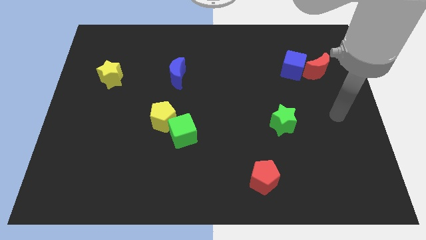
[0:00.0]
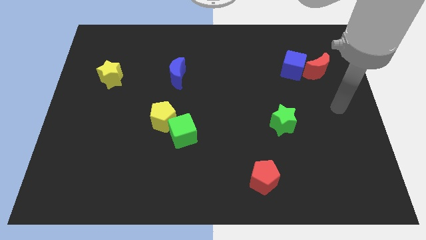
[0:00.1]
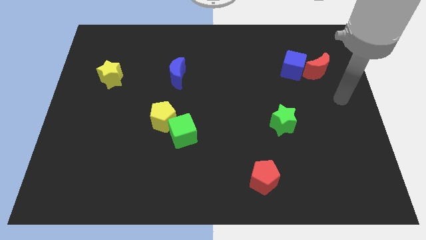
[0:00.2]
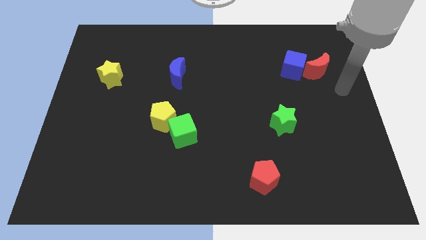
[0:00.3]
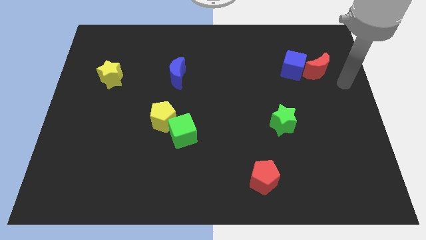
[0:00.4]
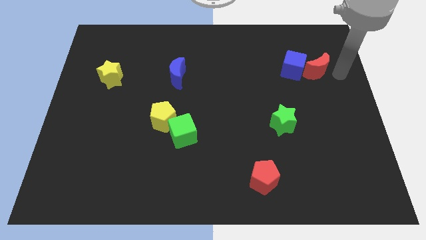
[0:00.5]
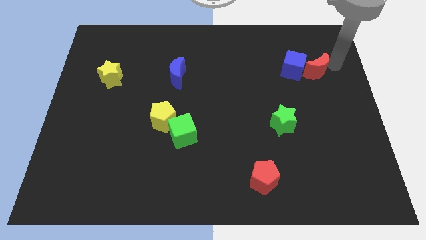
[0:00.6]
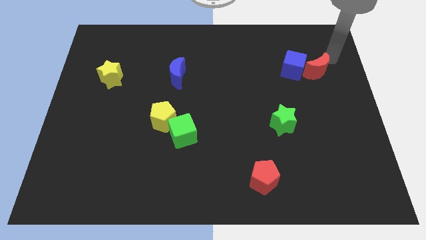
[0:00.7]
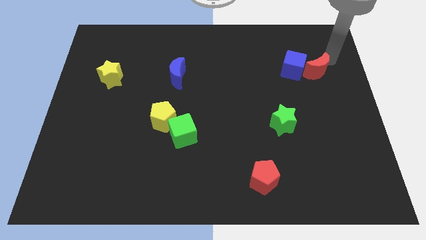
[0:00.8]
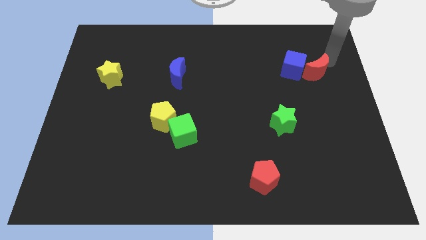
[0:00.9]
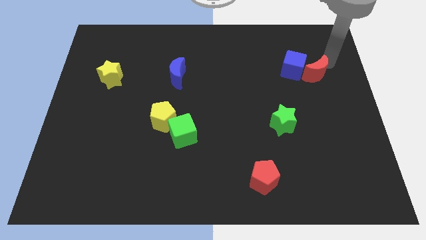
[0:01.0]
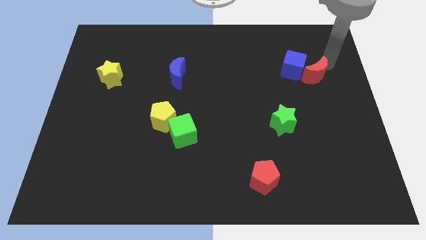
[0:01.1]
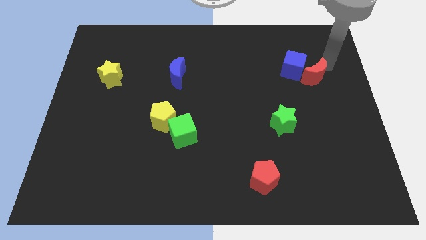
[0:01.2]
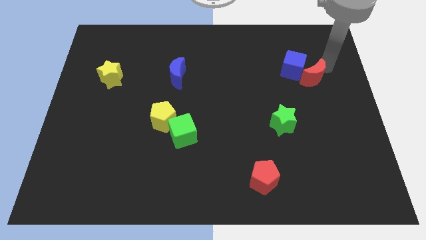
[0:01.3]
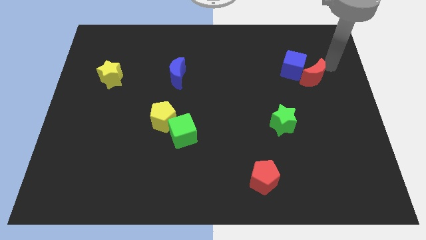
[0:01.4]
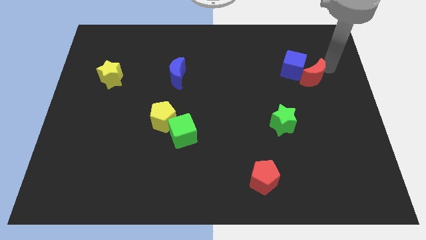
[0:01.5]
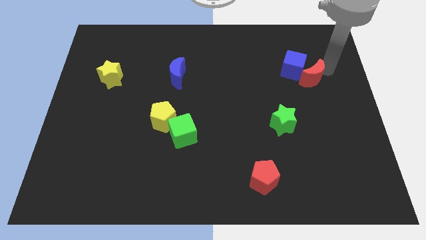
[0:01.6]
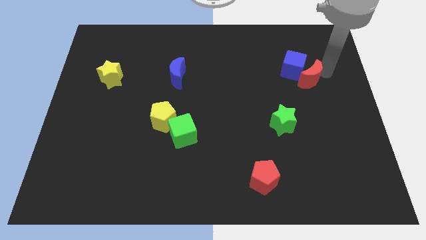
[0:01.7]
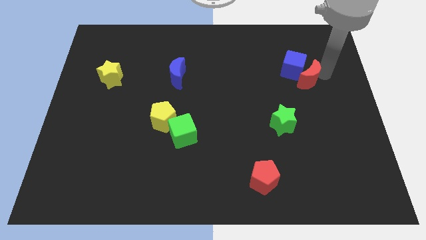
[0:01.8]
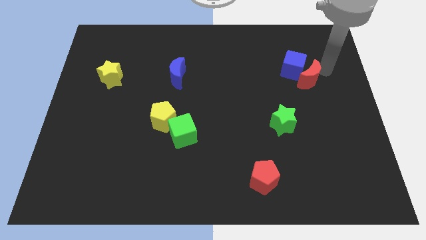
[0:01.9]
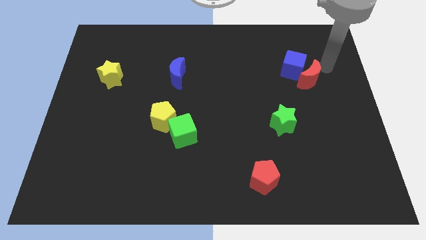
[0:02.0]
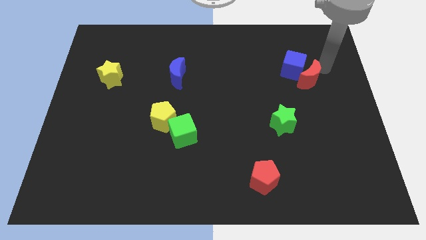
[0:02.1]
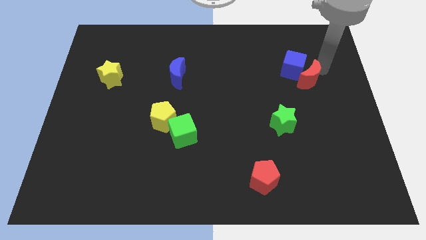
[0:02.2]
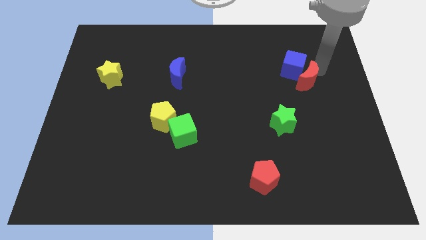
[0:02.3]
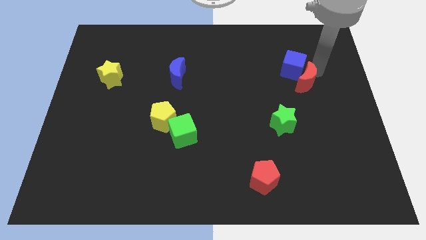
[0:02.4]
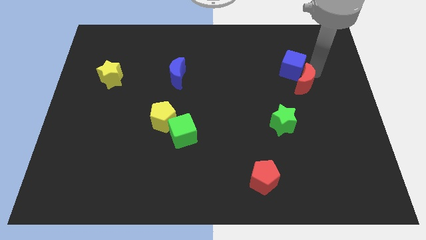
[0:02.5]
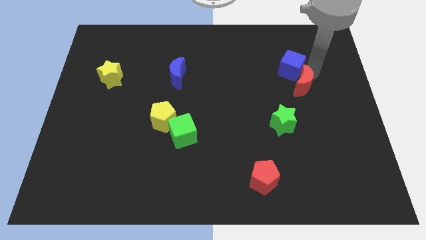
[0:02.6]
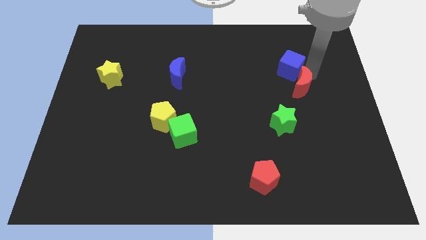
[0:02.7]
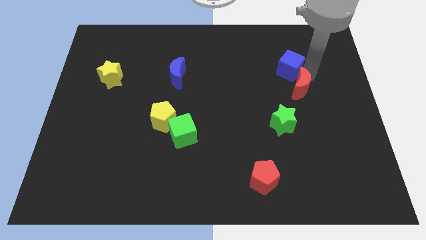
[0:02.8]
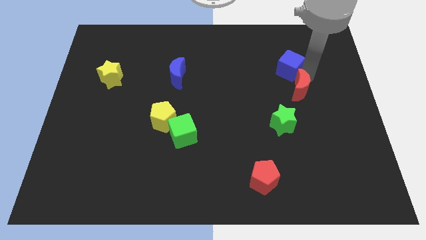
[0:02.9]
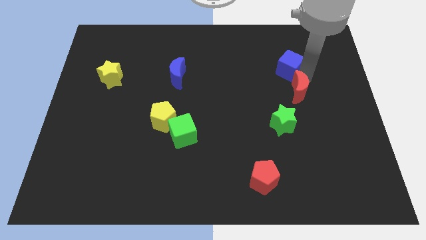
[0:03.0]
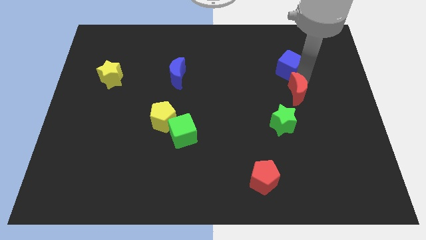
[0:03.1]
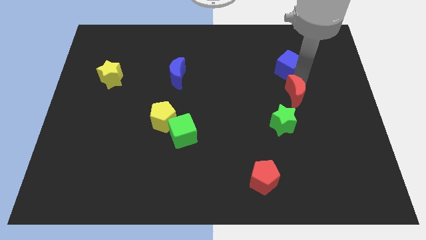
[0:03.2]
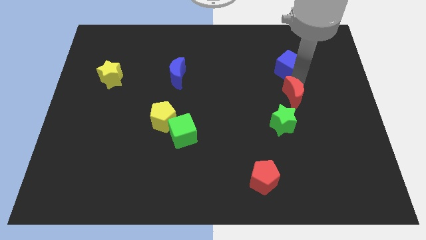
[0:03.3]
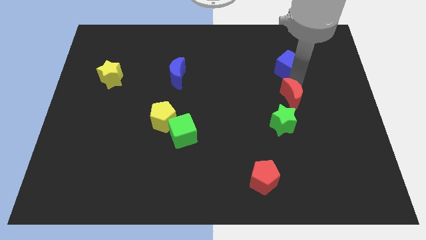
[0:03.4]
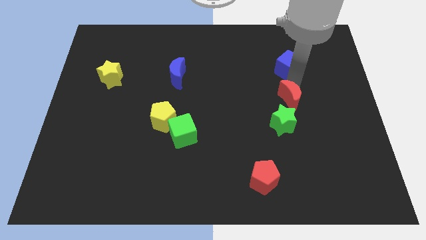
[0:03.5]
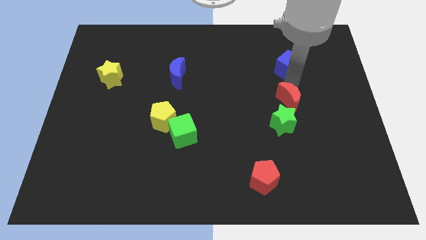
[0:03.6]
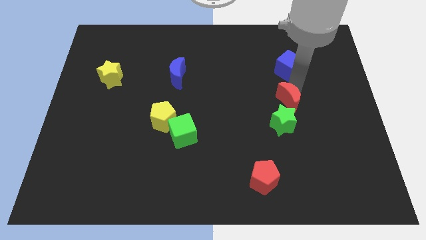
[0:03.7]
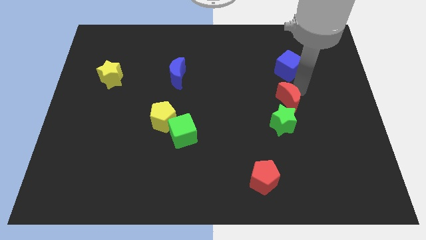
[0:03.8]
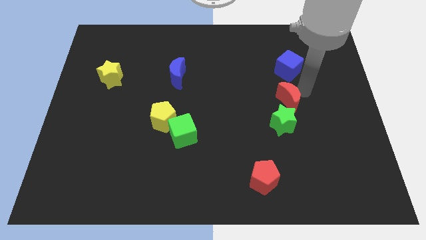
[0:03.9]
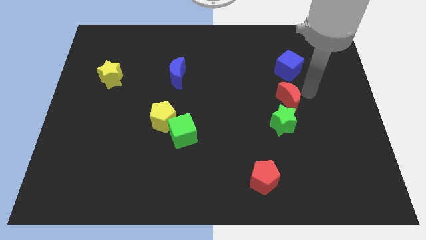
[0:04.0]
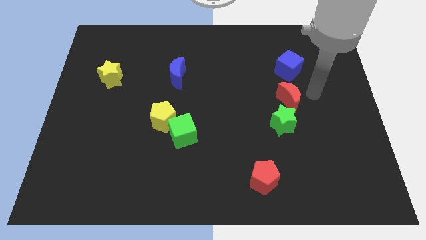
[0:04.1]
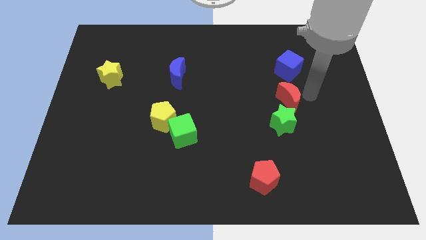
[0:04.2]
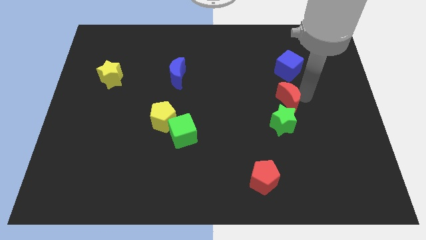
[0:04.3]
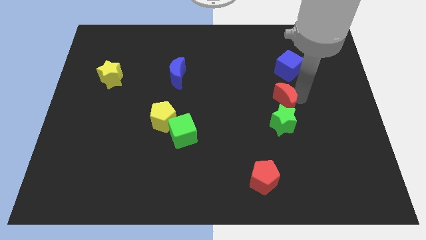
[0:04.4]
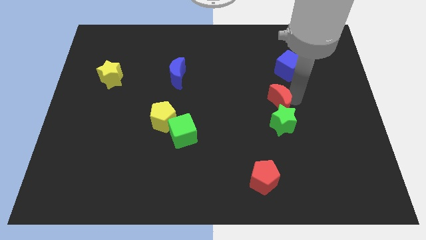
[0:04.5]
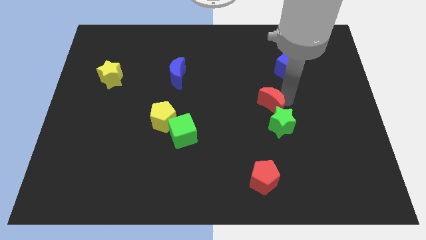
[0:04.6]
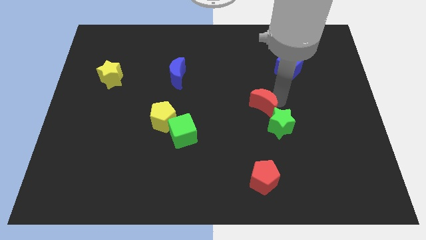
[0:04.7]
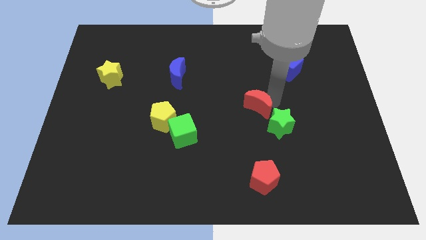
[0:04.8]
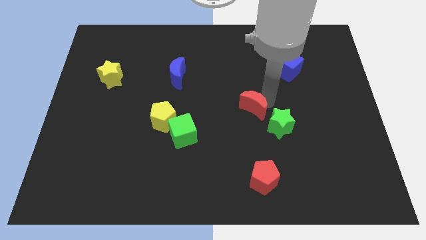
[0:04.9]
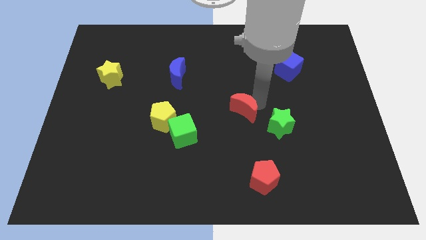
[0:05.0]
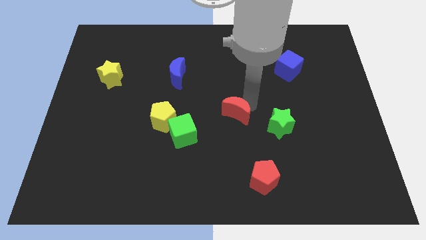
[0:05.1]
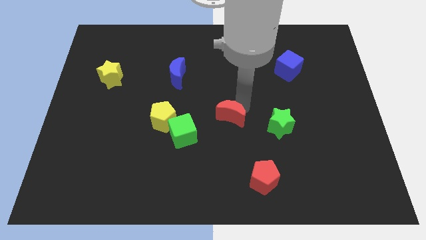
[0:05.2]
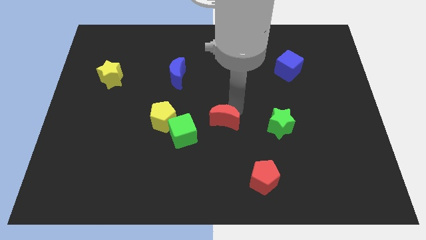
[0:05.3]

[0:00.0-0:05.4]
slide the red moon just right of the green cube

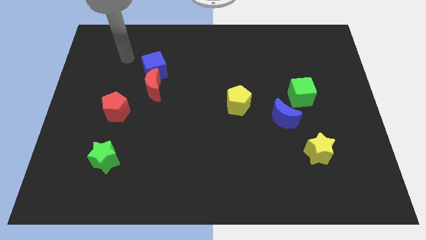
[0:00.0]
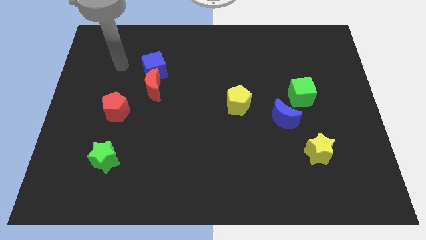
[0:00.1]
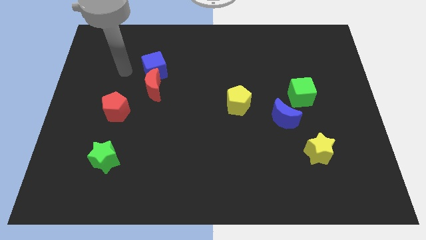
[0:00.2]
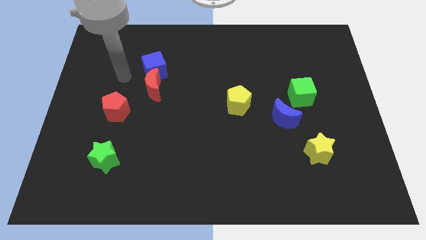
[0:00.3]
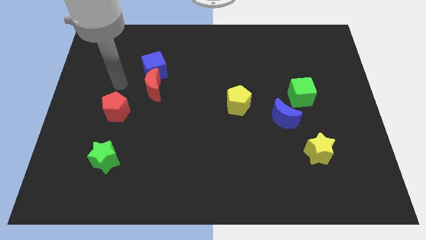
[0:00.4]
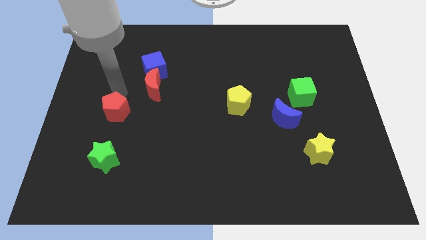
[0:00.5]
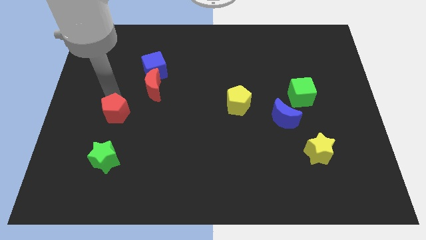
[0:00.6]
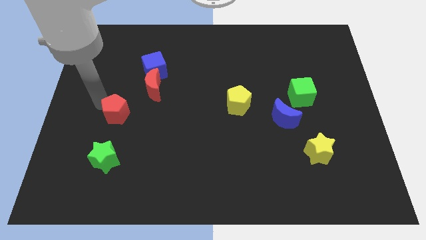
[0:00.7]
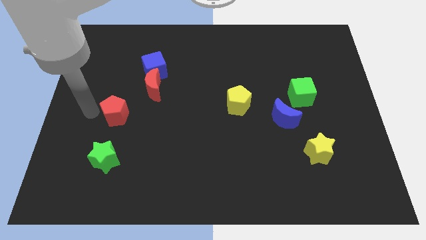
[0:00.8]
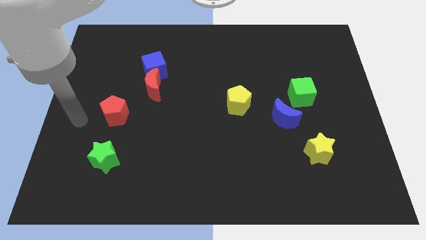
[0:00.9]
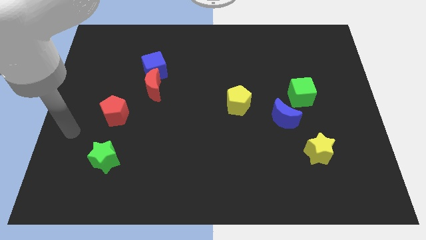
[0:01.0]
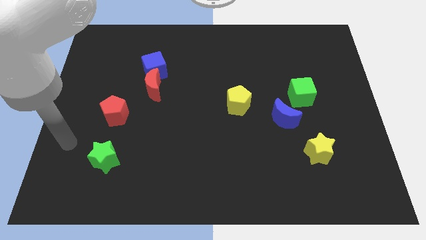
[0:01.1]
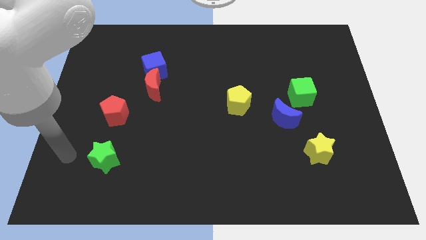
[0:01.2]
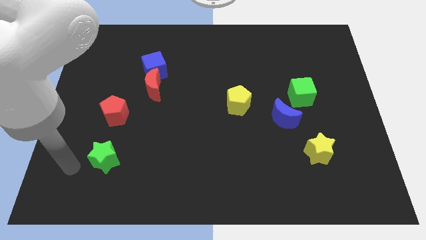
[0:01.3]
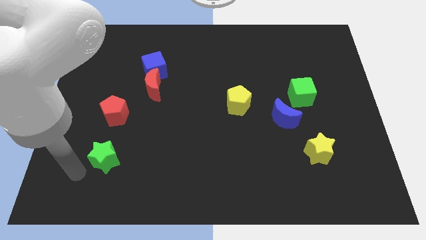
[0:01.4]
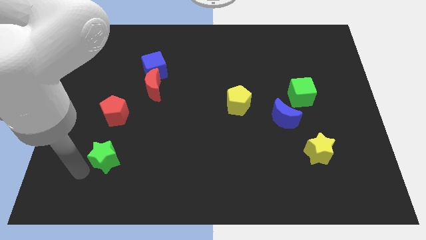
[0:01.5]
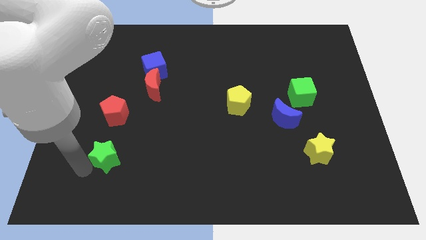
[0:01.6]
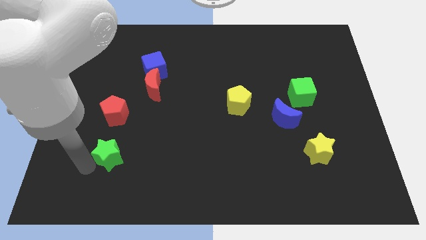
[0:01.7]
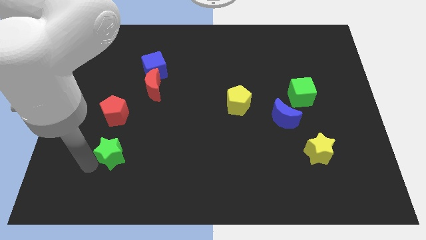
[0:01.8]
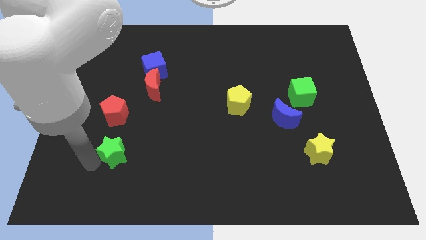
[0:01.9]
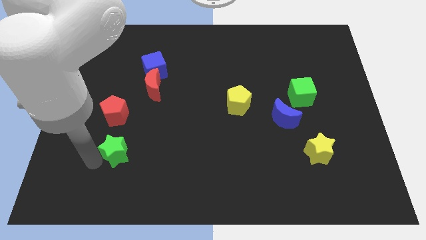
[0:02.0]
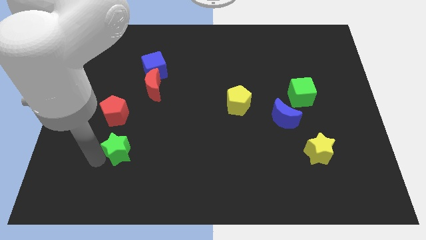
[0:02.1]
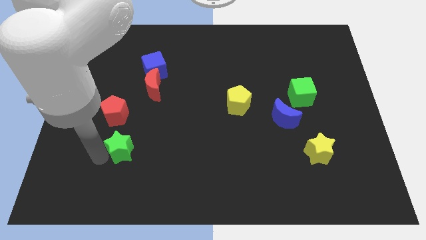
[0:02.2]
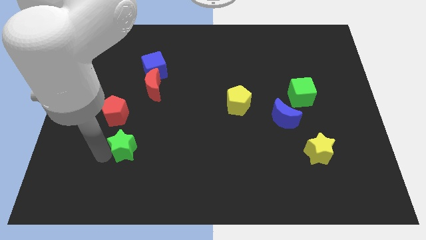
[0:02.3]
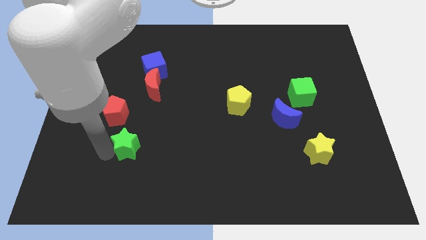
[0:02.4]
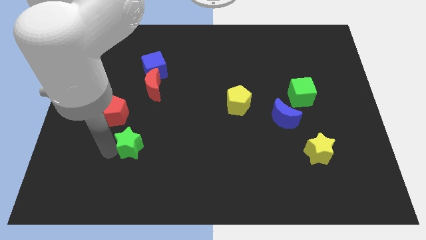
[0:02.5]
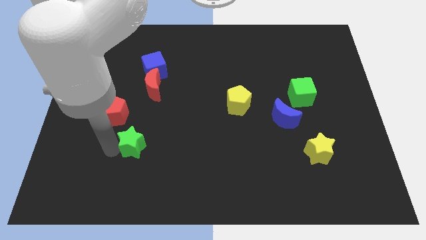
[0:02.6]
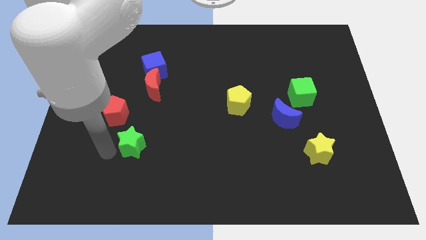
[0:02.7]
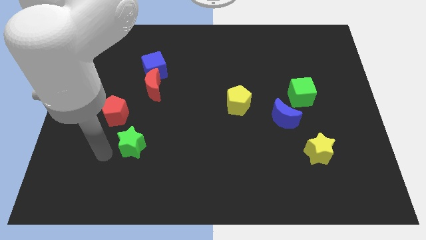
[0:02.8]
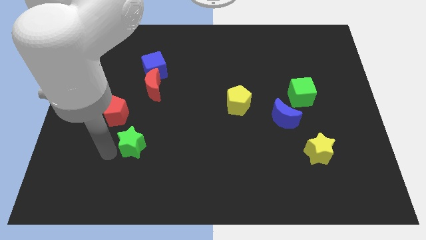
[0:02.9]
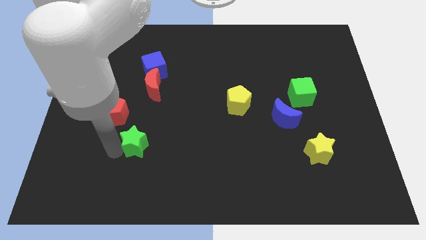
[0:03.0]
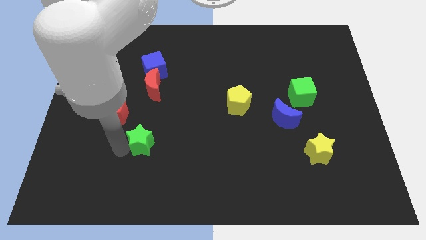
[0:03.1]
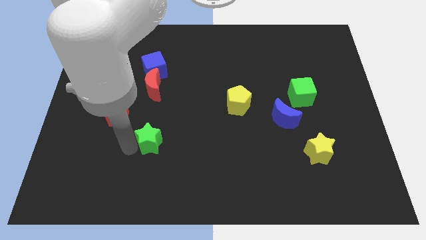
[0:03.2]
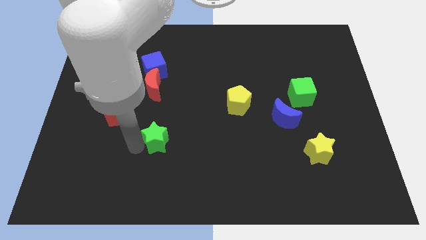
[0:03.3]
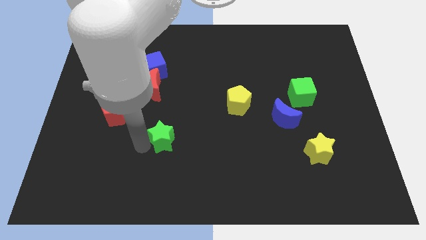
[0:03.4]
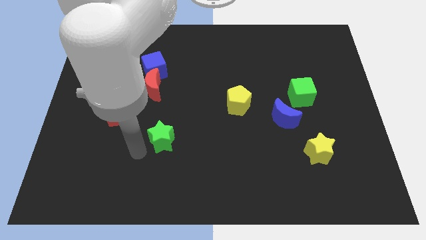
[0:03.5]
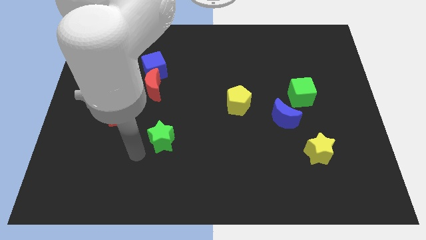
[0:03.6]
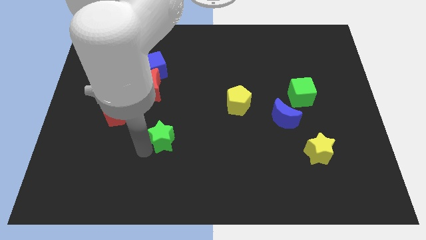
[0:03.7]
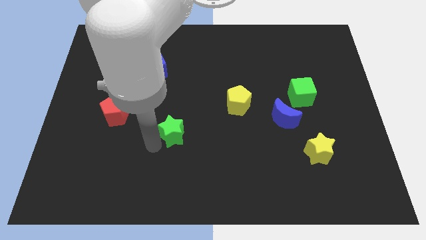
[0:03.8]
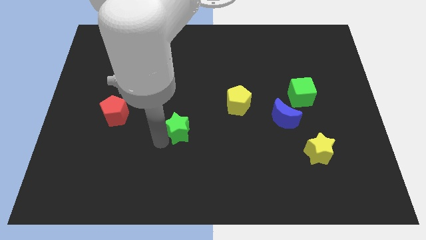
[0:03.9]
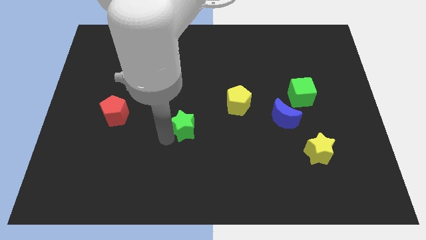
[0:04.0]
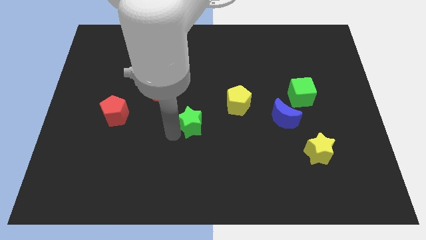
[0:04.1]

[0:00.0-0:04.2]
push the green star diagonally down and to the left of the yellow pentagon
